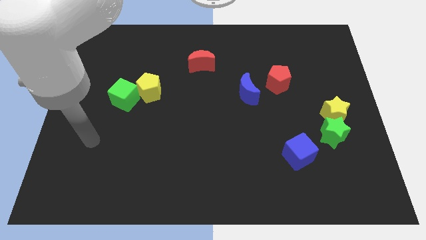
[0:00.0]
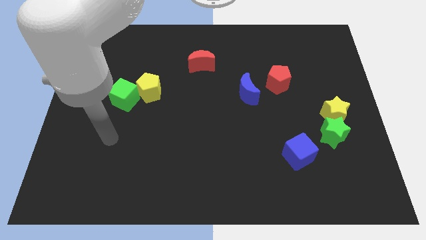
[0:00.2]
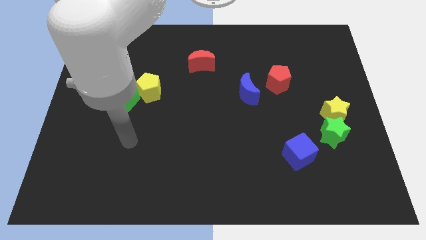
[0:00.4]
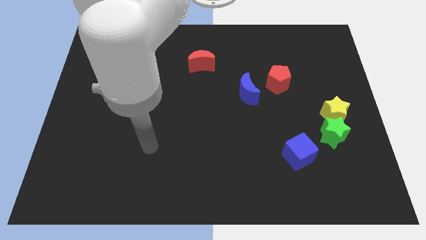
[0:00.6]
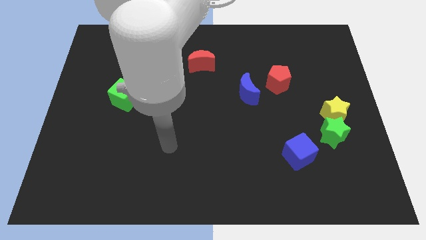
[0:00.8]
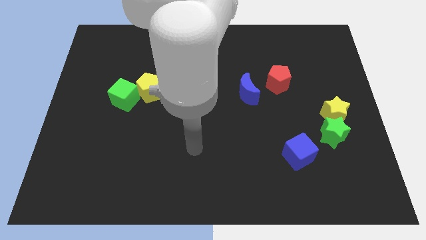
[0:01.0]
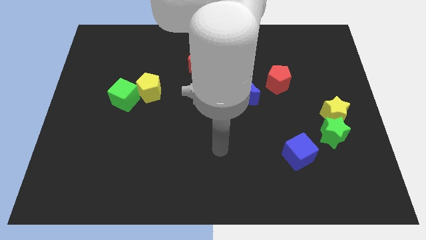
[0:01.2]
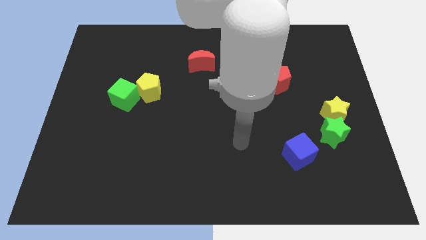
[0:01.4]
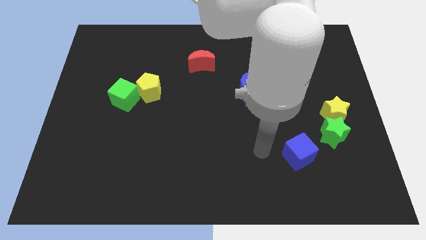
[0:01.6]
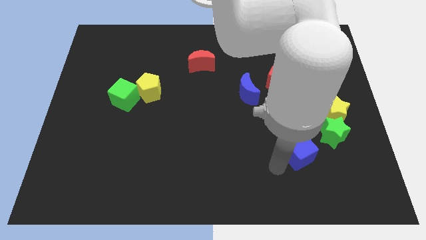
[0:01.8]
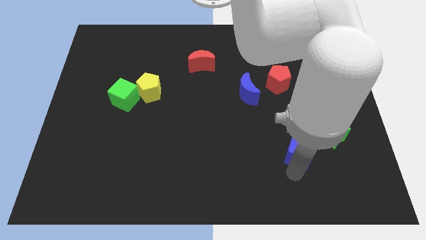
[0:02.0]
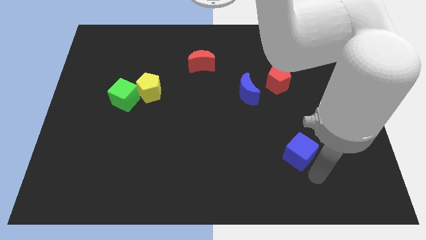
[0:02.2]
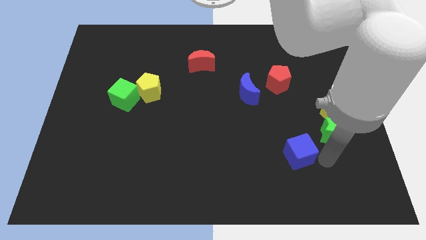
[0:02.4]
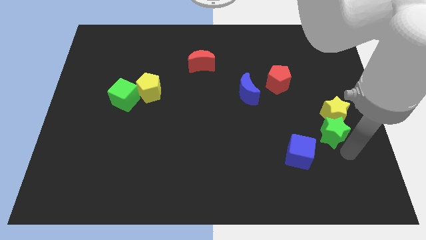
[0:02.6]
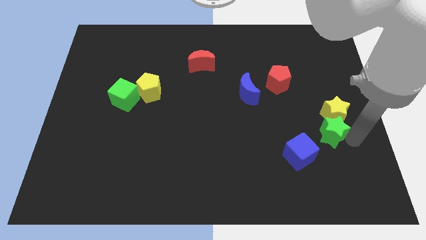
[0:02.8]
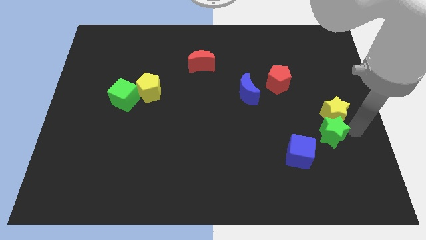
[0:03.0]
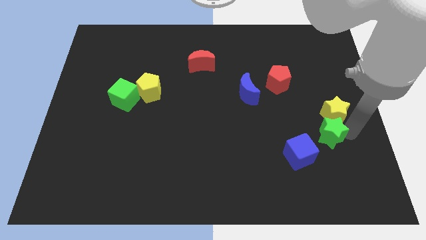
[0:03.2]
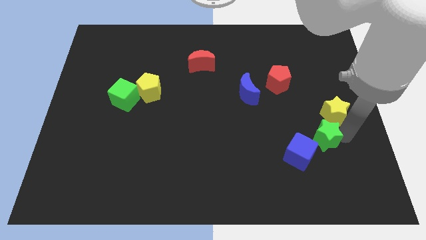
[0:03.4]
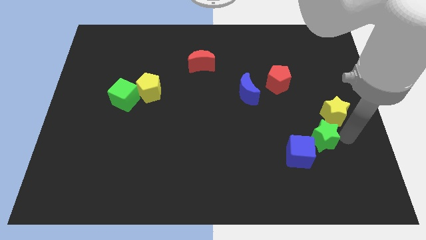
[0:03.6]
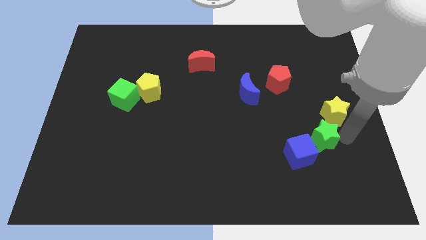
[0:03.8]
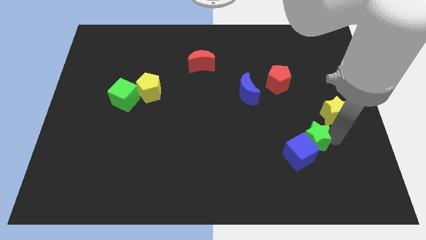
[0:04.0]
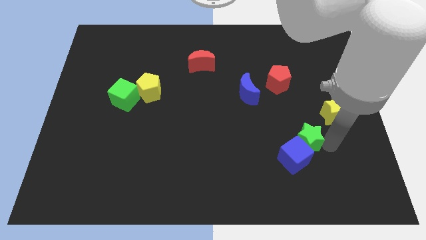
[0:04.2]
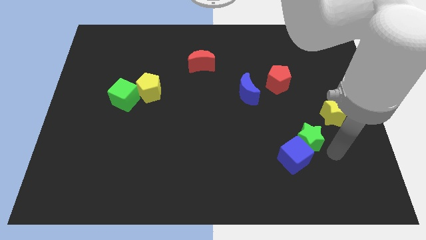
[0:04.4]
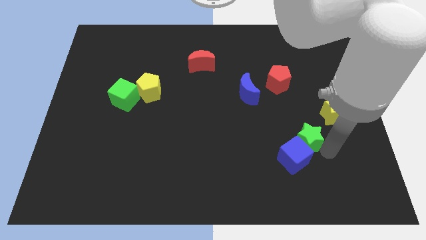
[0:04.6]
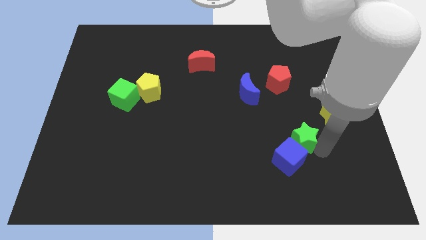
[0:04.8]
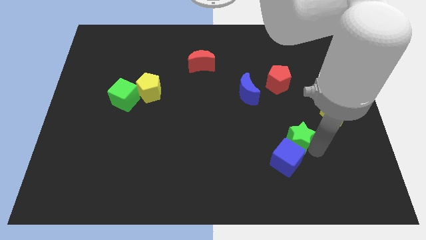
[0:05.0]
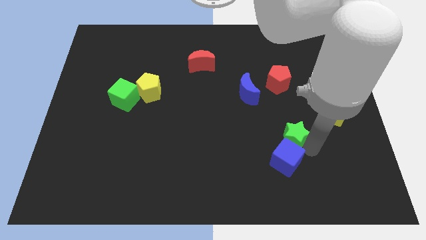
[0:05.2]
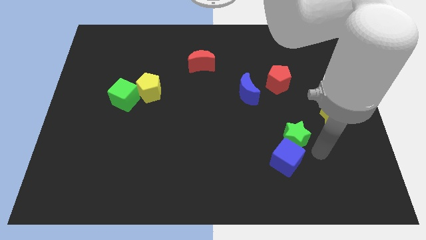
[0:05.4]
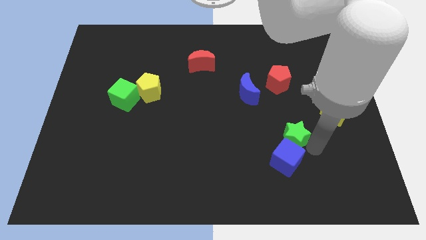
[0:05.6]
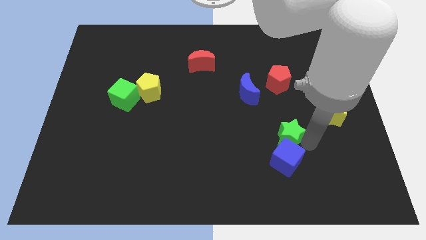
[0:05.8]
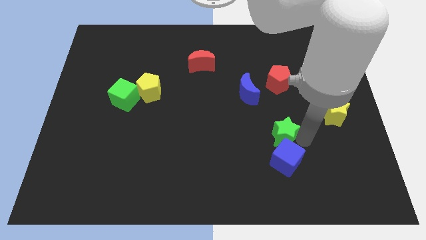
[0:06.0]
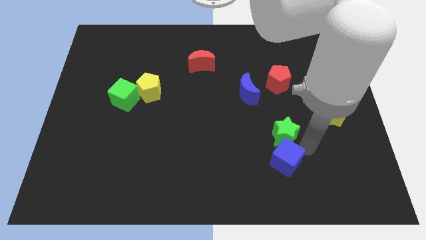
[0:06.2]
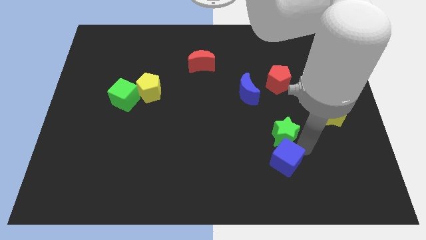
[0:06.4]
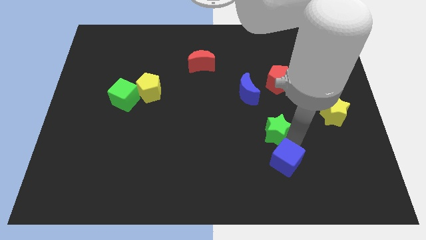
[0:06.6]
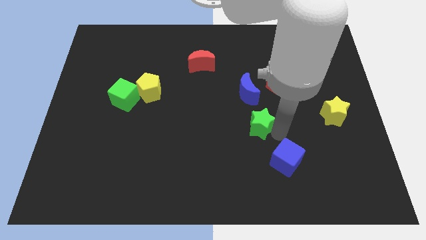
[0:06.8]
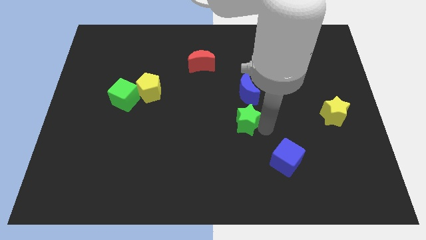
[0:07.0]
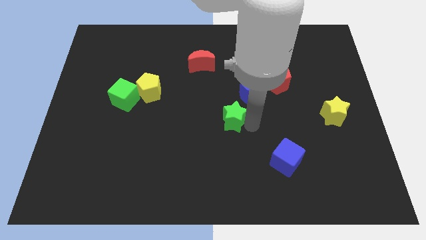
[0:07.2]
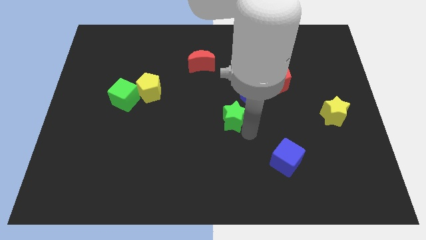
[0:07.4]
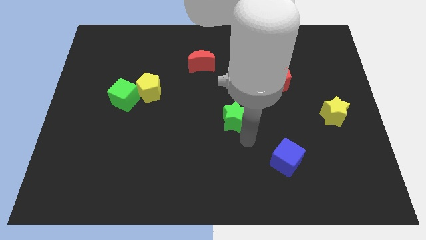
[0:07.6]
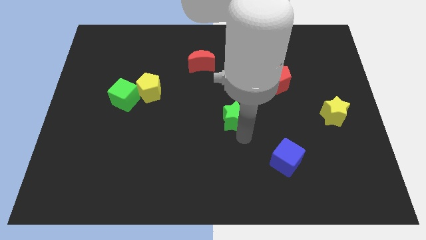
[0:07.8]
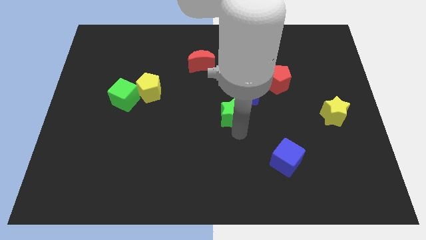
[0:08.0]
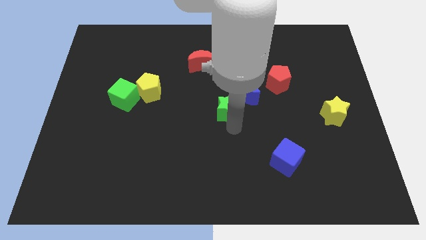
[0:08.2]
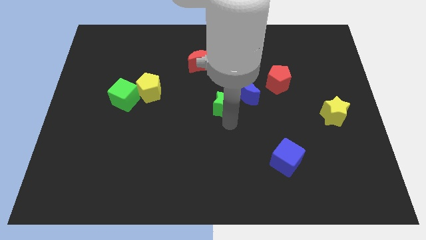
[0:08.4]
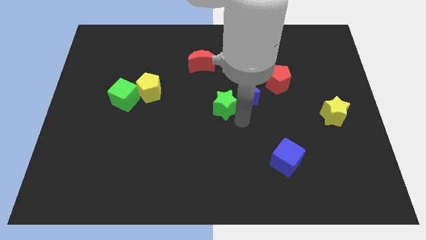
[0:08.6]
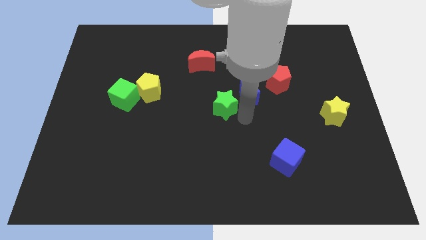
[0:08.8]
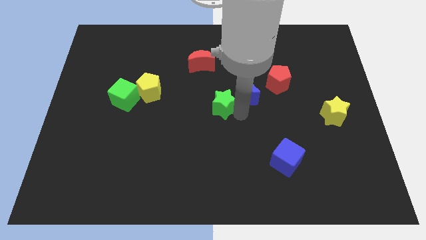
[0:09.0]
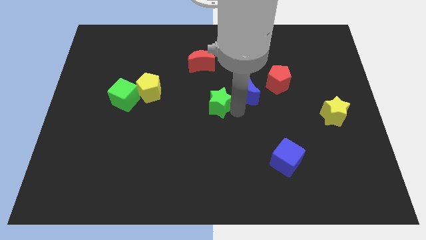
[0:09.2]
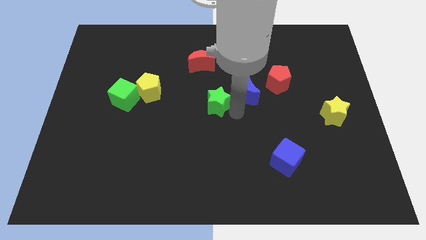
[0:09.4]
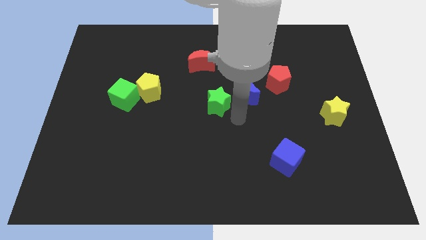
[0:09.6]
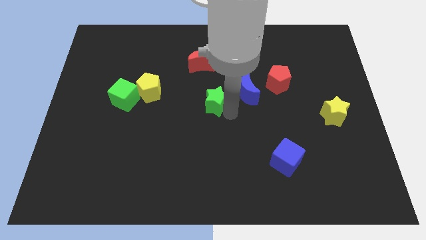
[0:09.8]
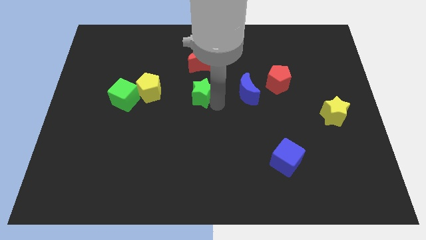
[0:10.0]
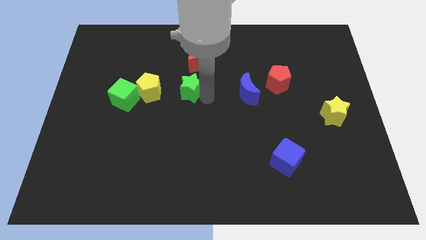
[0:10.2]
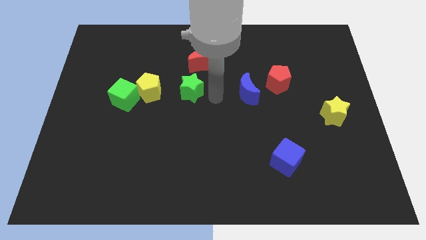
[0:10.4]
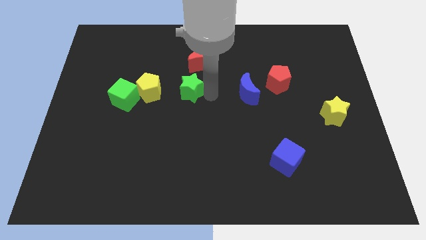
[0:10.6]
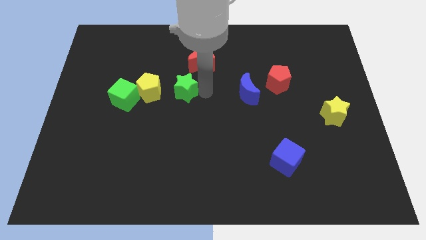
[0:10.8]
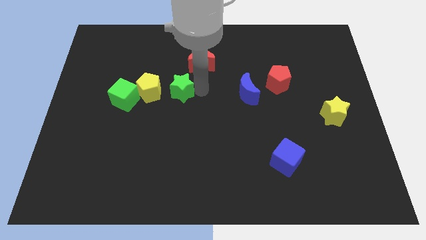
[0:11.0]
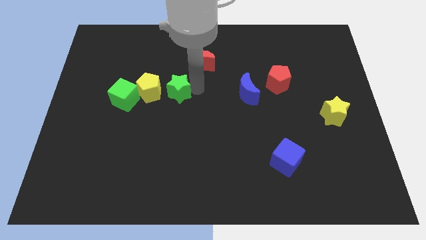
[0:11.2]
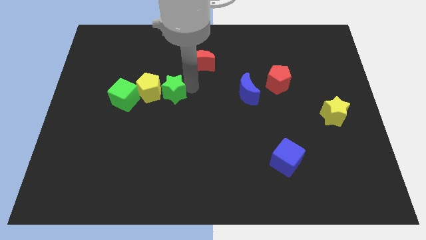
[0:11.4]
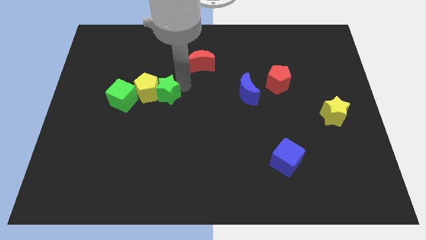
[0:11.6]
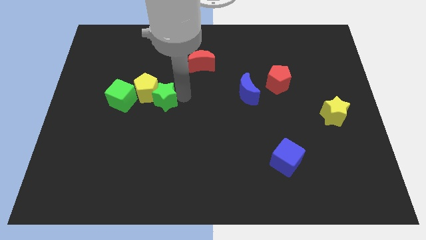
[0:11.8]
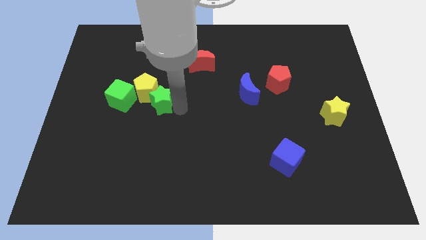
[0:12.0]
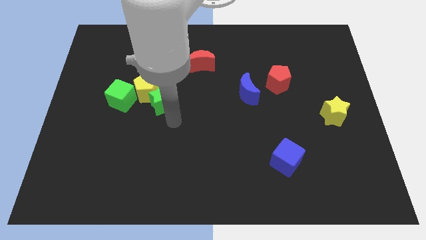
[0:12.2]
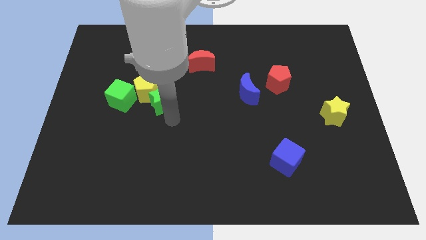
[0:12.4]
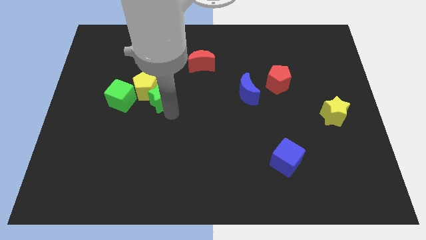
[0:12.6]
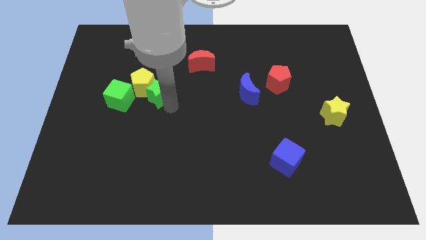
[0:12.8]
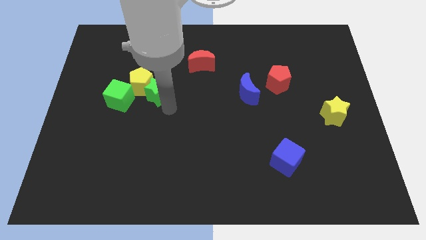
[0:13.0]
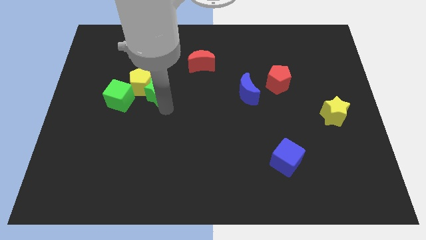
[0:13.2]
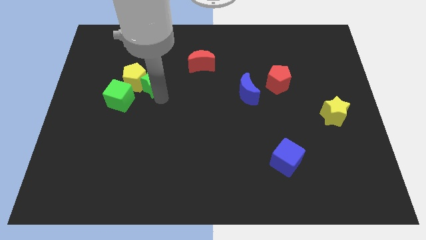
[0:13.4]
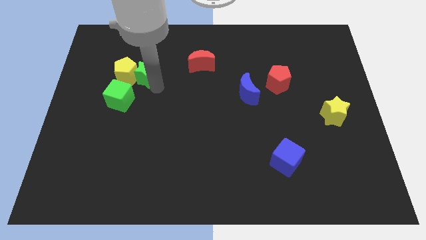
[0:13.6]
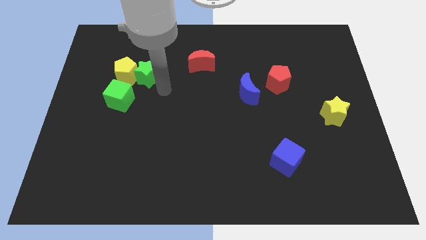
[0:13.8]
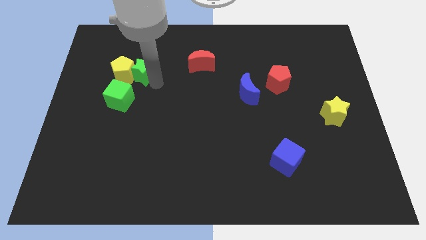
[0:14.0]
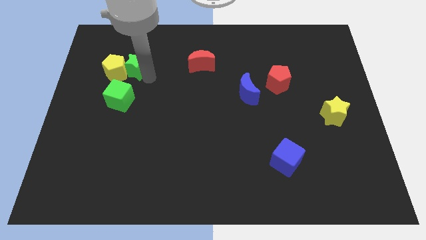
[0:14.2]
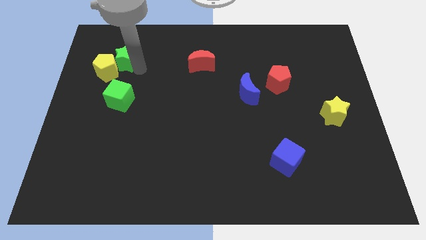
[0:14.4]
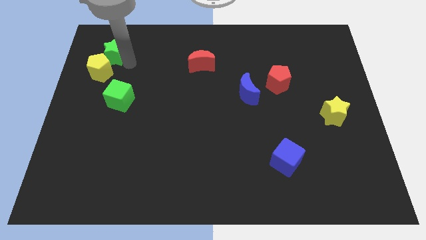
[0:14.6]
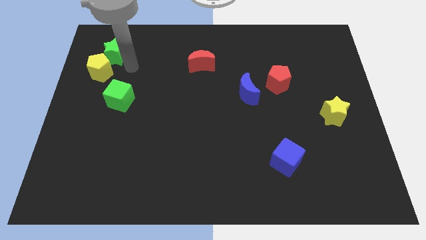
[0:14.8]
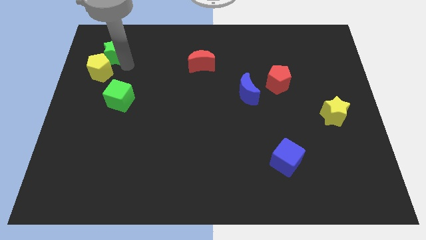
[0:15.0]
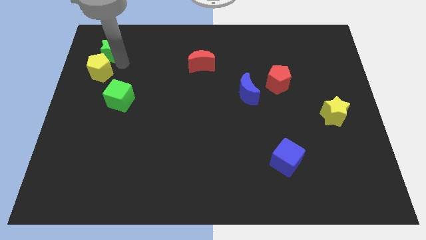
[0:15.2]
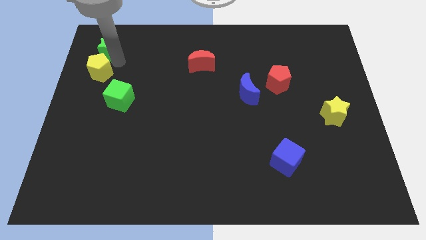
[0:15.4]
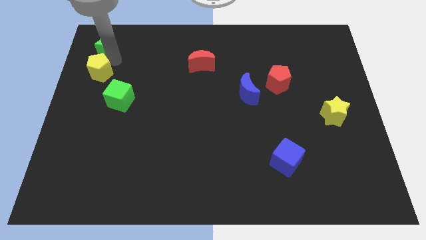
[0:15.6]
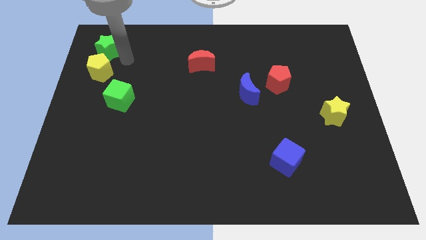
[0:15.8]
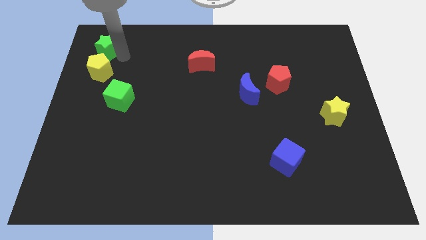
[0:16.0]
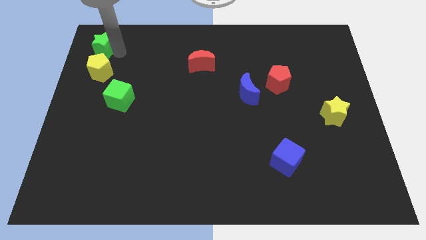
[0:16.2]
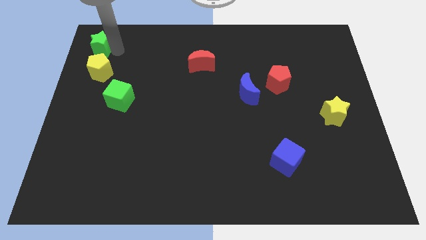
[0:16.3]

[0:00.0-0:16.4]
put the green star to the top left of the board
